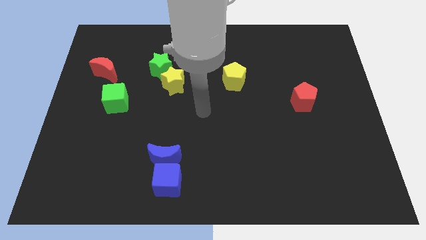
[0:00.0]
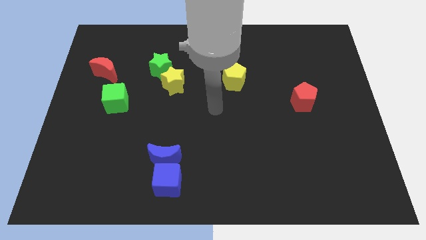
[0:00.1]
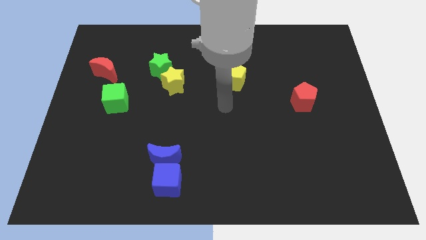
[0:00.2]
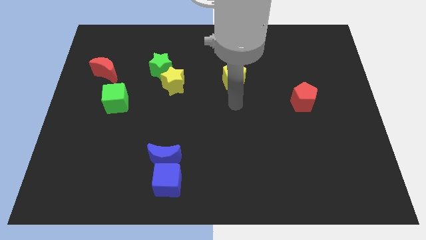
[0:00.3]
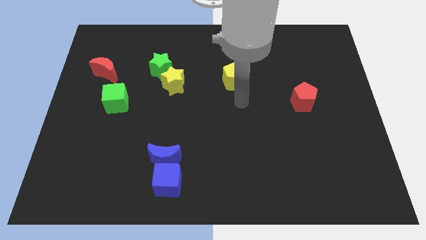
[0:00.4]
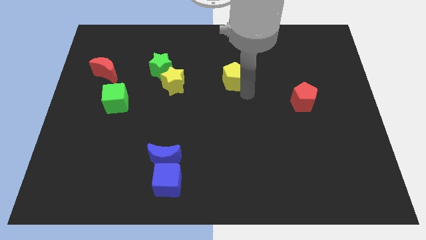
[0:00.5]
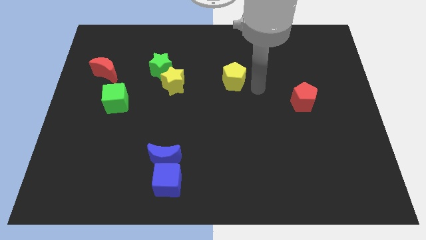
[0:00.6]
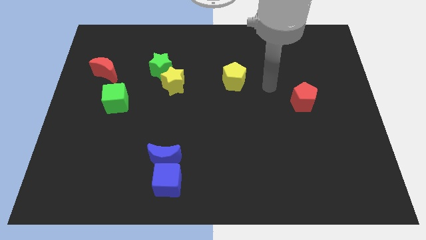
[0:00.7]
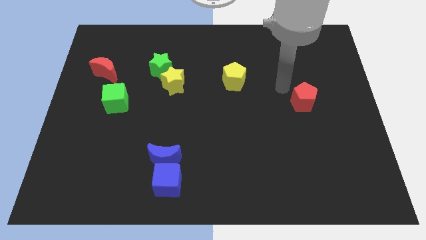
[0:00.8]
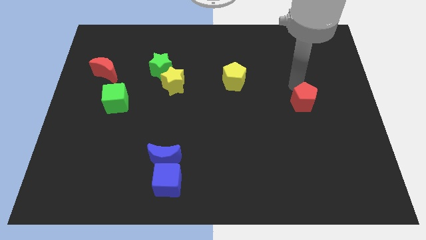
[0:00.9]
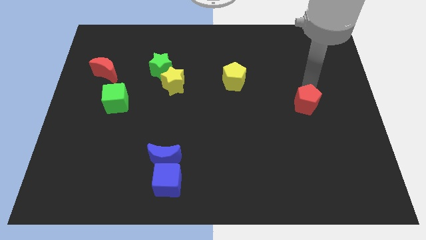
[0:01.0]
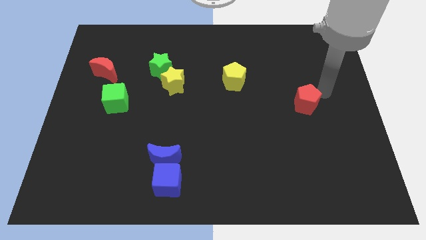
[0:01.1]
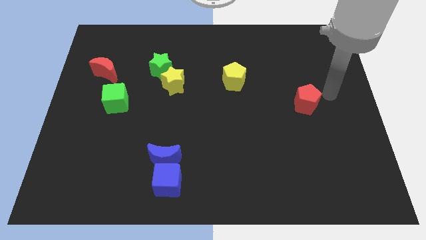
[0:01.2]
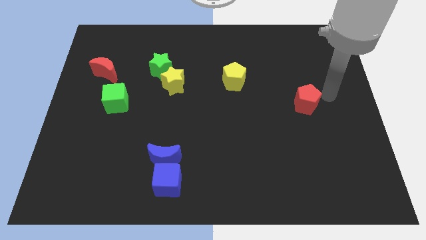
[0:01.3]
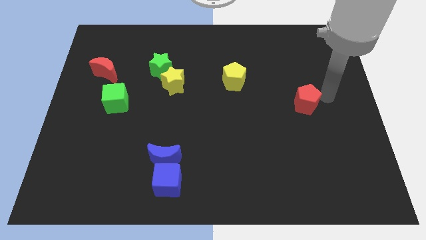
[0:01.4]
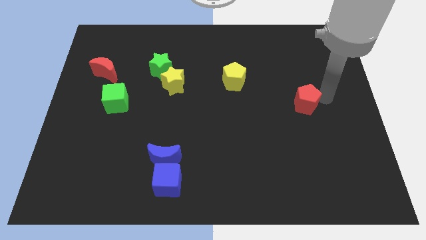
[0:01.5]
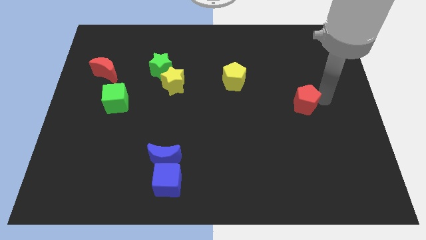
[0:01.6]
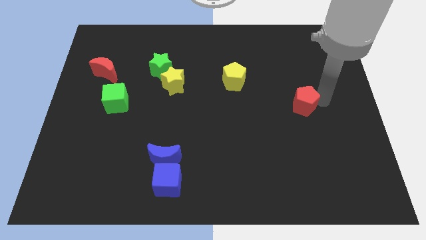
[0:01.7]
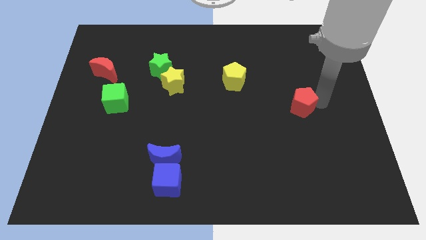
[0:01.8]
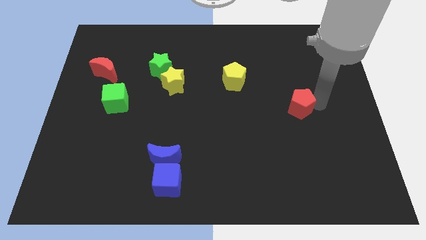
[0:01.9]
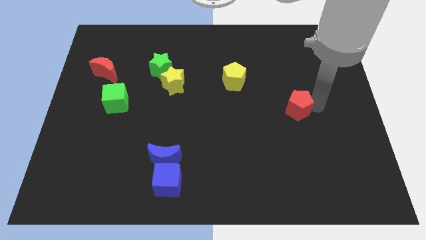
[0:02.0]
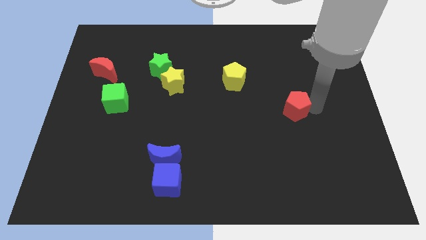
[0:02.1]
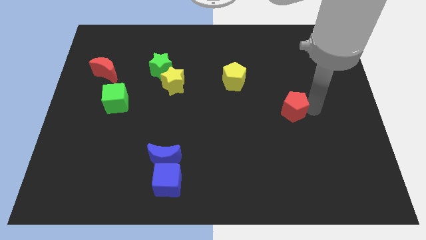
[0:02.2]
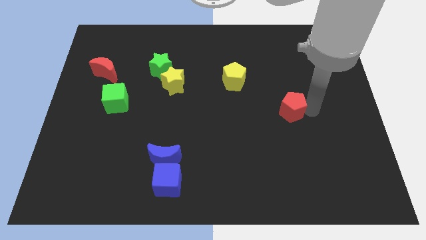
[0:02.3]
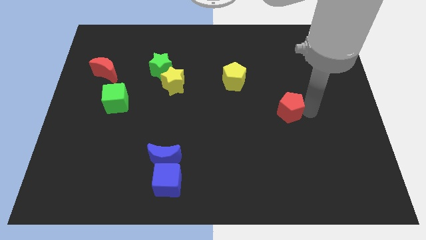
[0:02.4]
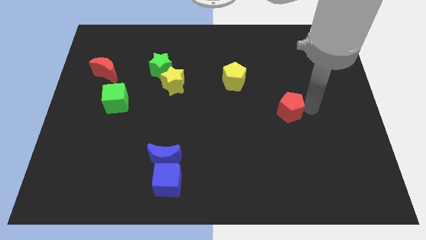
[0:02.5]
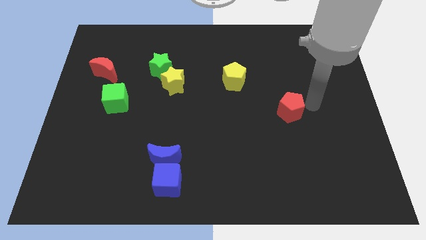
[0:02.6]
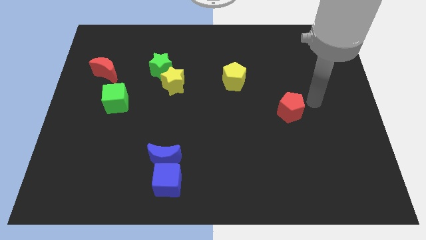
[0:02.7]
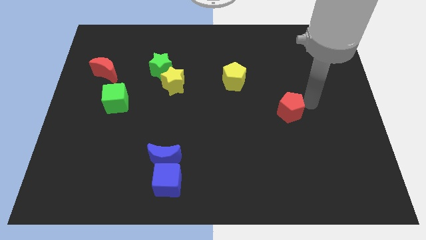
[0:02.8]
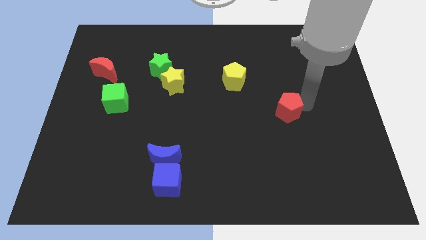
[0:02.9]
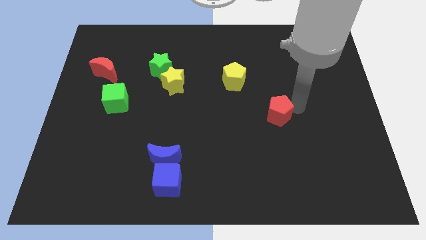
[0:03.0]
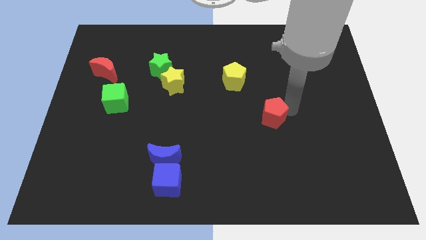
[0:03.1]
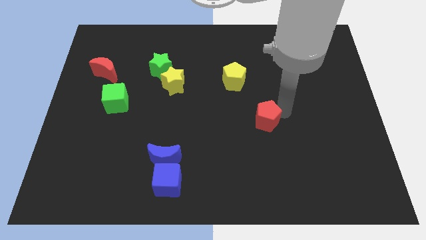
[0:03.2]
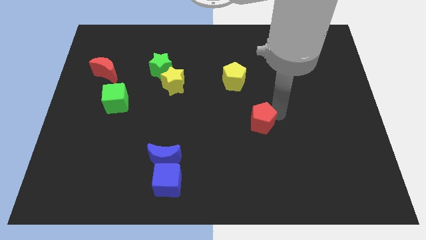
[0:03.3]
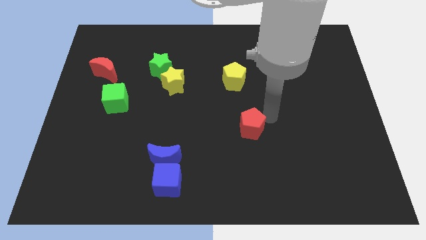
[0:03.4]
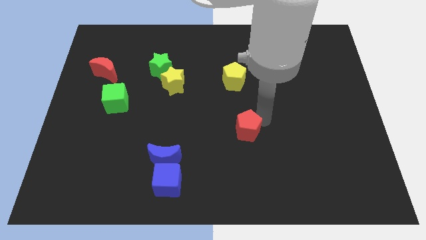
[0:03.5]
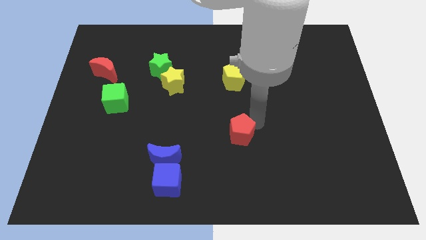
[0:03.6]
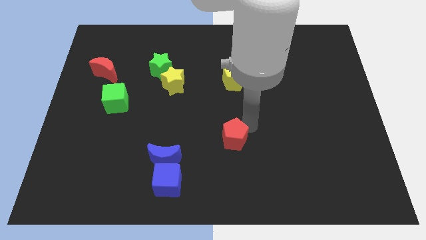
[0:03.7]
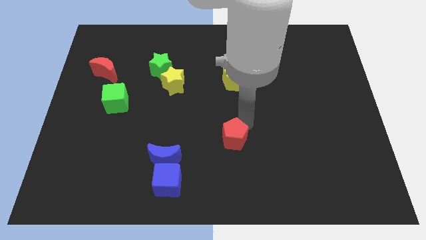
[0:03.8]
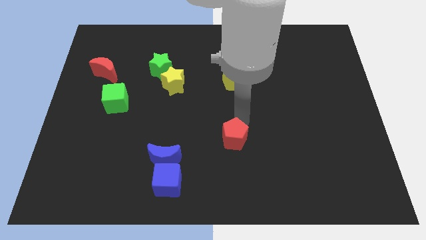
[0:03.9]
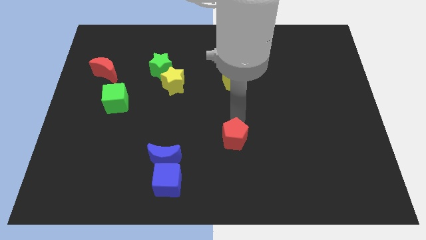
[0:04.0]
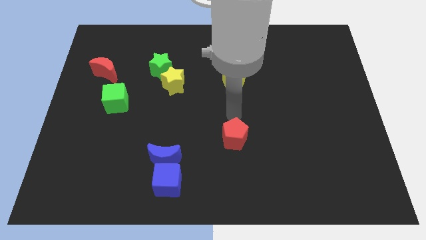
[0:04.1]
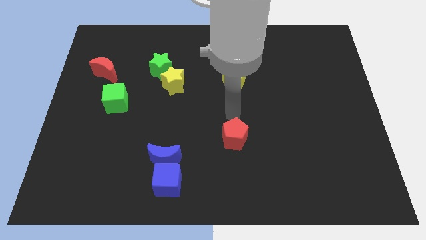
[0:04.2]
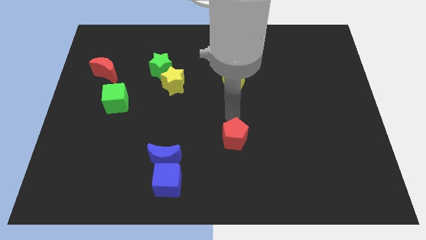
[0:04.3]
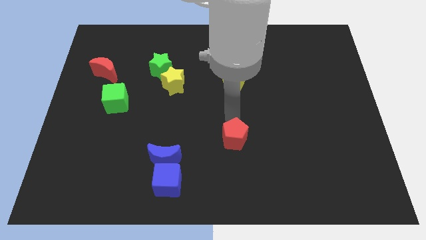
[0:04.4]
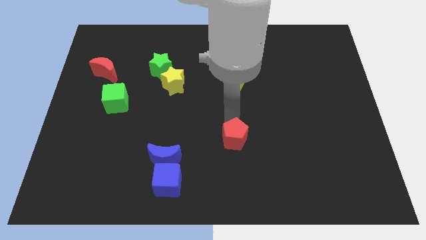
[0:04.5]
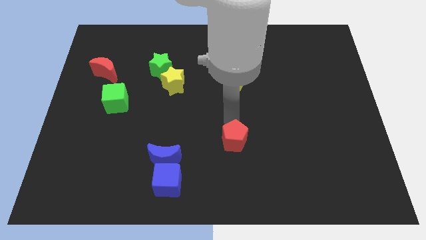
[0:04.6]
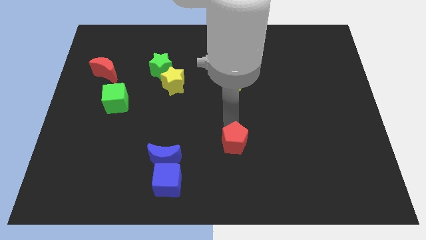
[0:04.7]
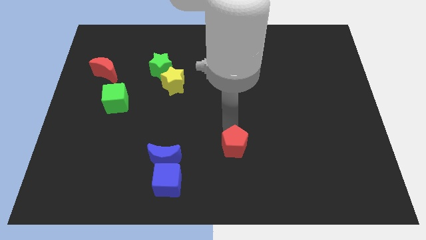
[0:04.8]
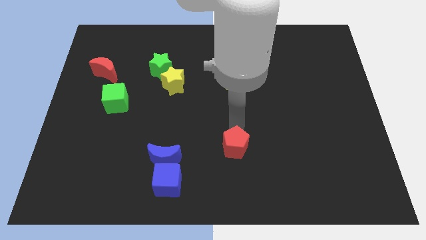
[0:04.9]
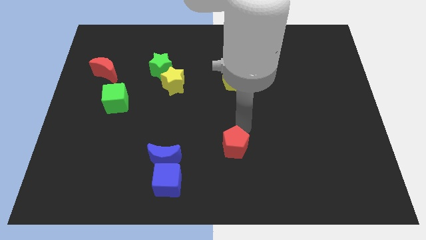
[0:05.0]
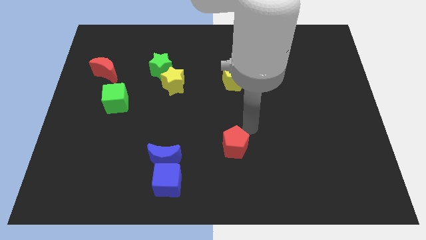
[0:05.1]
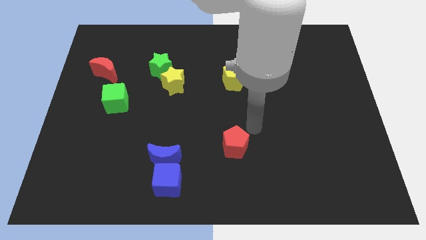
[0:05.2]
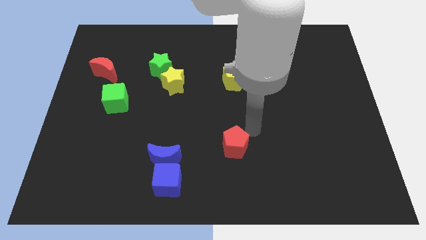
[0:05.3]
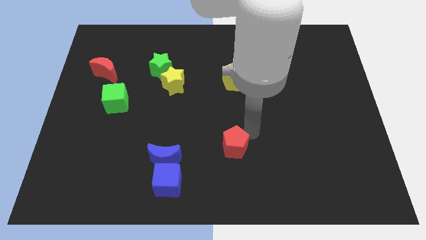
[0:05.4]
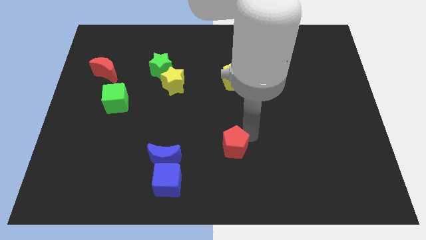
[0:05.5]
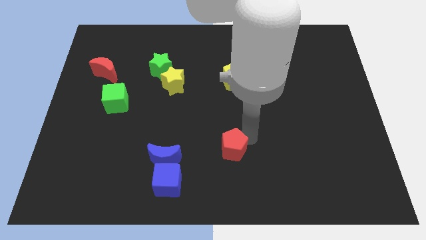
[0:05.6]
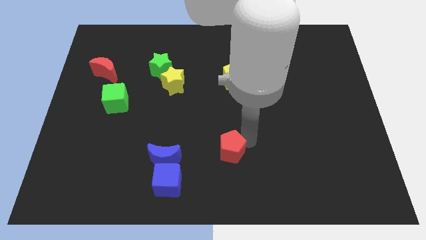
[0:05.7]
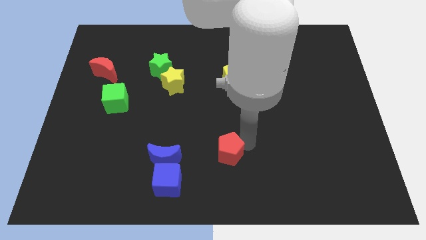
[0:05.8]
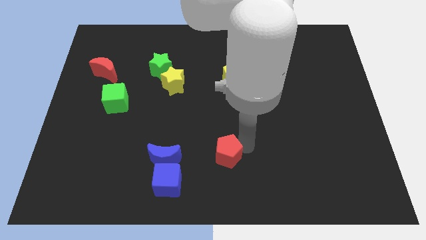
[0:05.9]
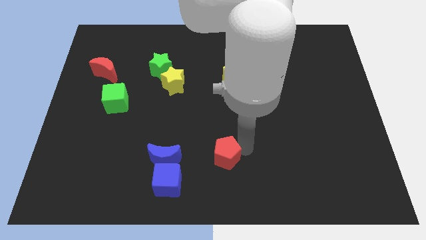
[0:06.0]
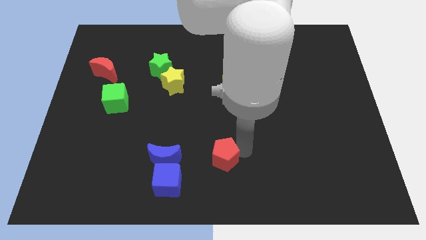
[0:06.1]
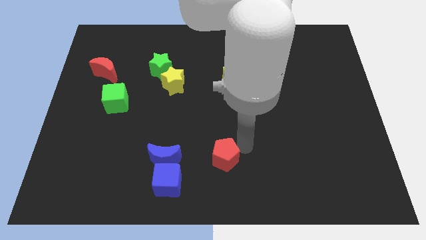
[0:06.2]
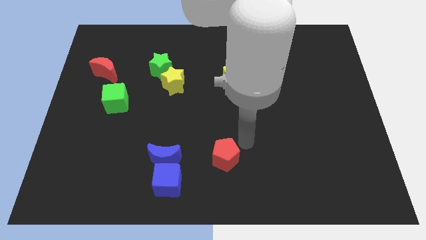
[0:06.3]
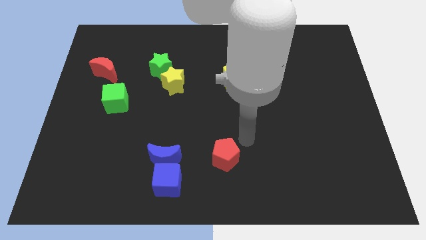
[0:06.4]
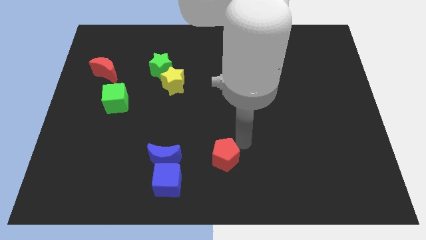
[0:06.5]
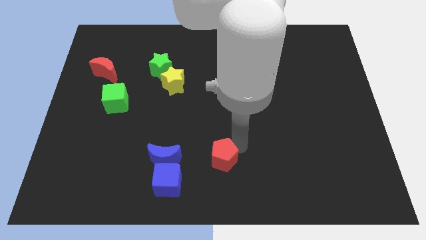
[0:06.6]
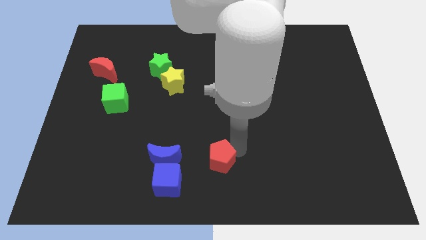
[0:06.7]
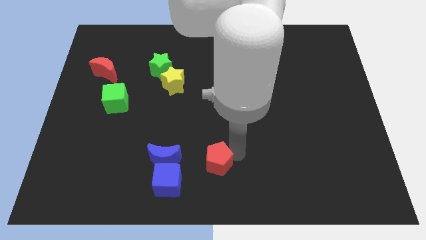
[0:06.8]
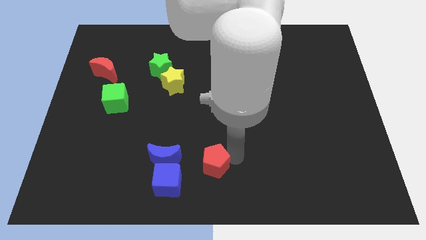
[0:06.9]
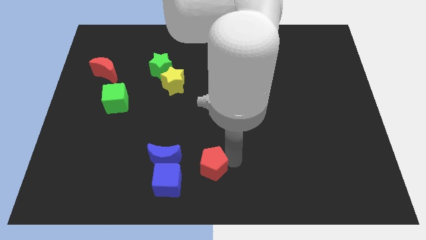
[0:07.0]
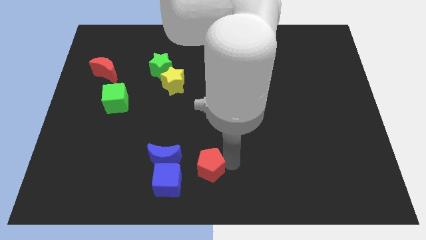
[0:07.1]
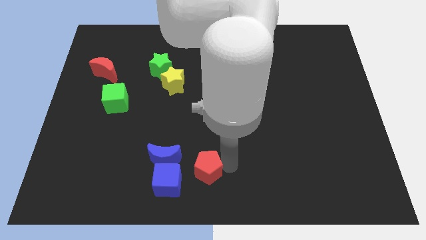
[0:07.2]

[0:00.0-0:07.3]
move the red pentagon to the bottom right side of the blue moon
